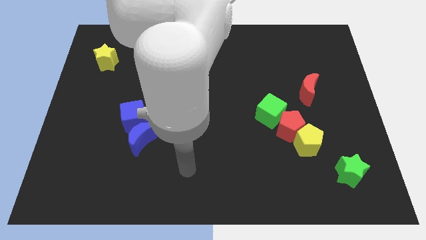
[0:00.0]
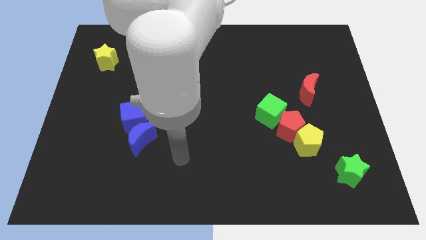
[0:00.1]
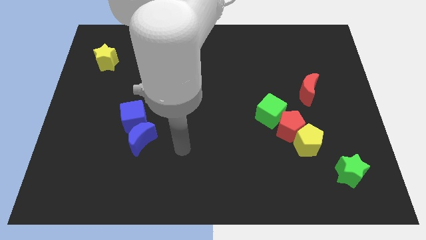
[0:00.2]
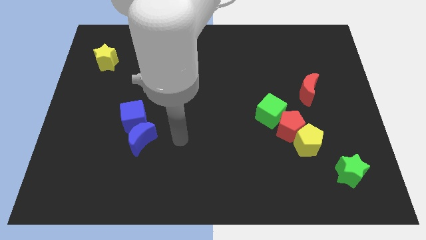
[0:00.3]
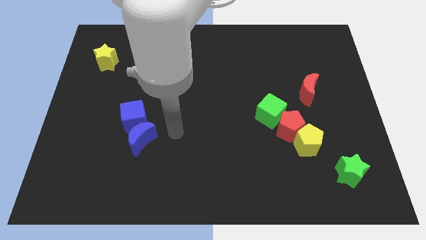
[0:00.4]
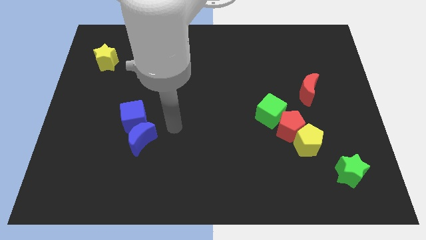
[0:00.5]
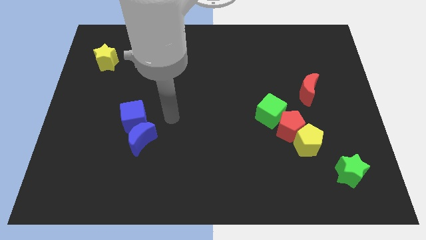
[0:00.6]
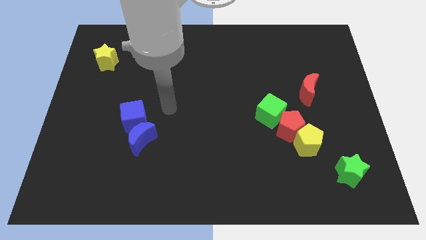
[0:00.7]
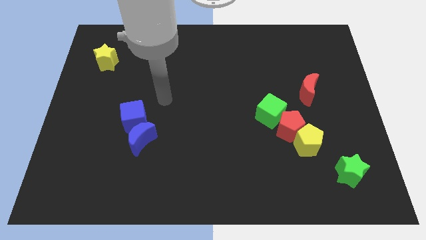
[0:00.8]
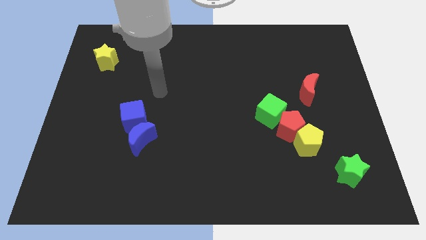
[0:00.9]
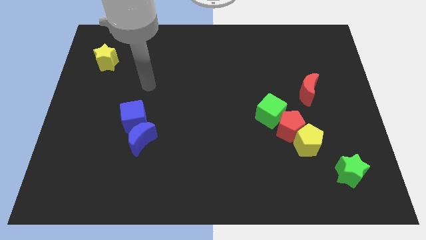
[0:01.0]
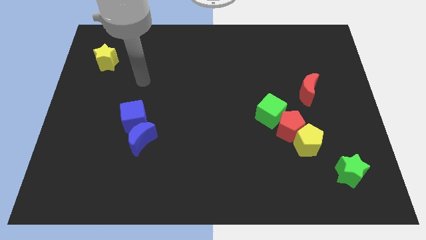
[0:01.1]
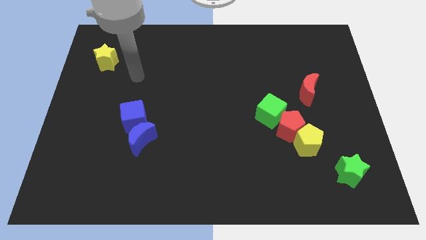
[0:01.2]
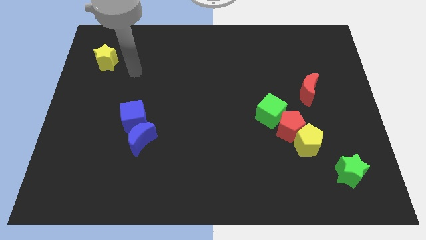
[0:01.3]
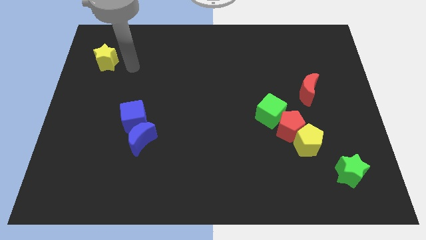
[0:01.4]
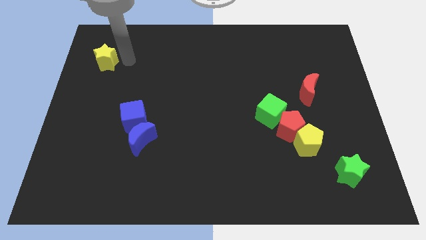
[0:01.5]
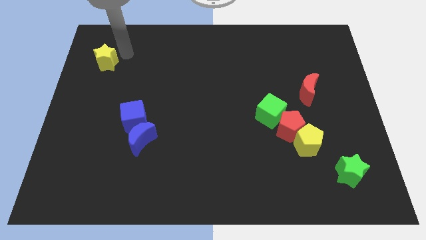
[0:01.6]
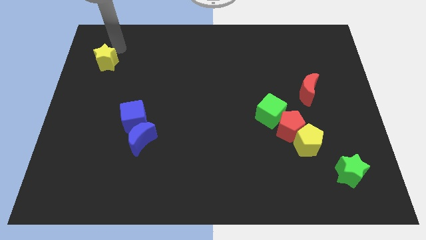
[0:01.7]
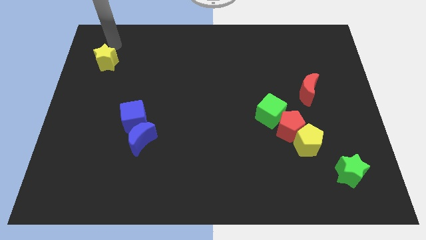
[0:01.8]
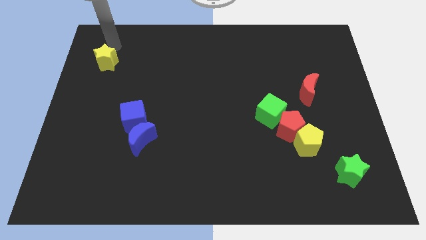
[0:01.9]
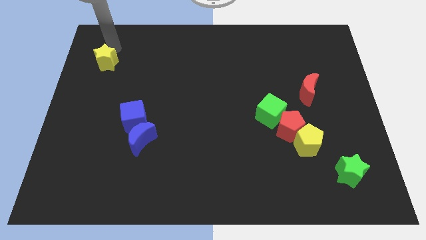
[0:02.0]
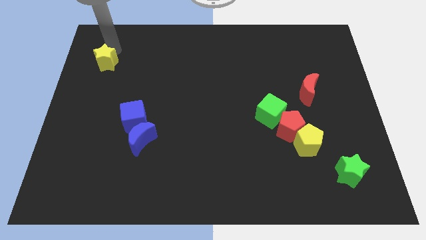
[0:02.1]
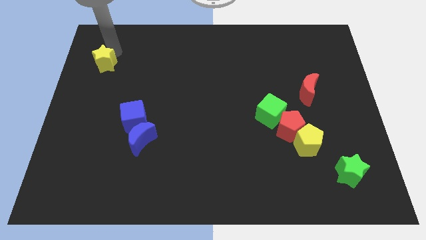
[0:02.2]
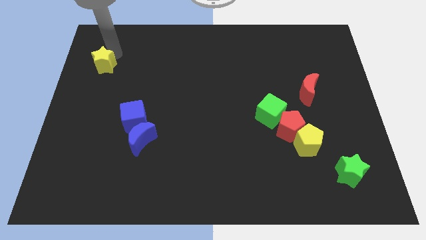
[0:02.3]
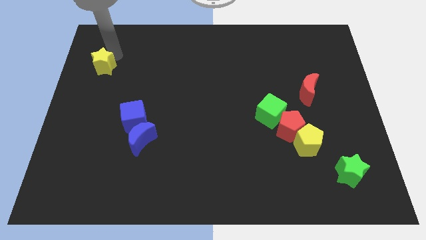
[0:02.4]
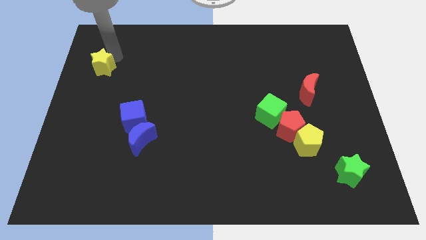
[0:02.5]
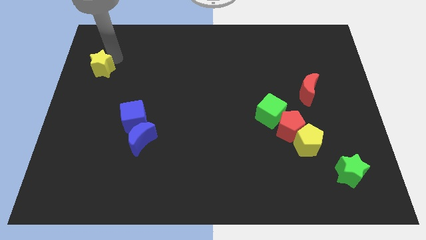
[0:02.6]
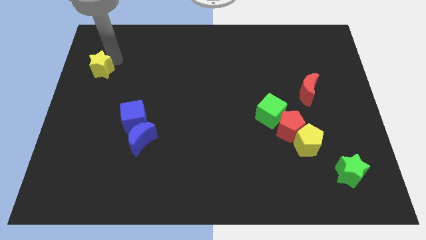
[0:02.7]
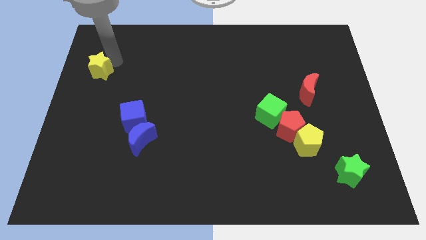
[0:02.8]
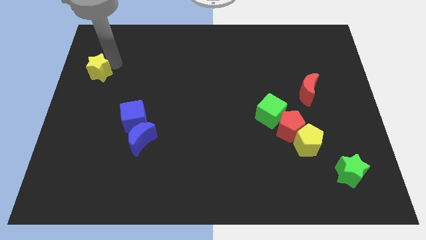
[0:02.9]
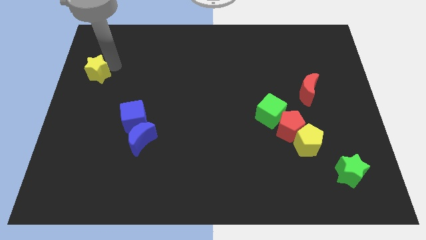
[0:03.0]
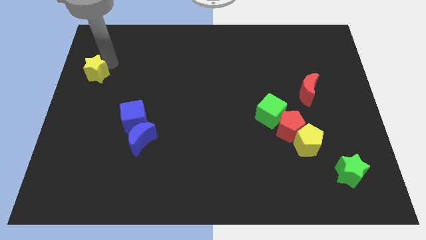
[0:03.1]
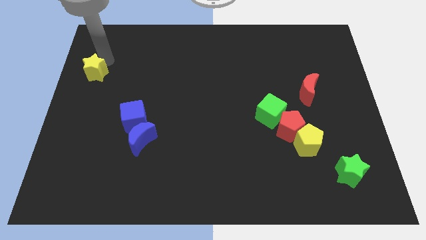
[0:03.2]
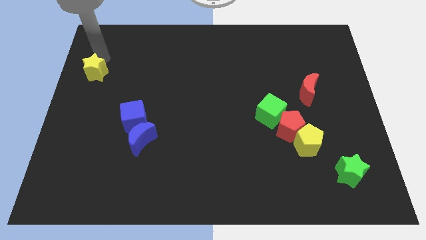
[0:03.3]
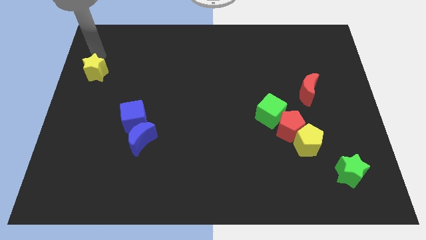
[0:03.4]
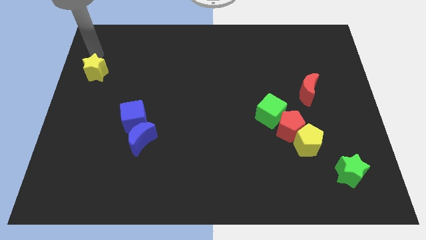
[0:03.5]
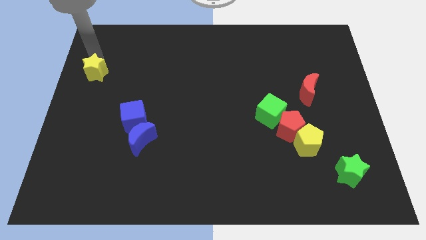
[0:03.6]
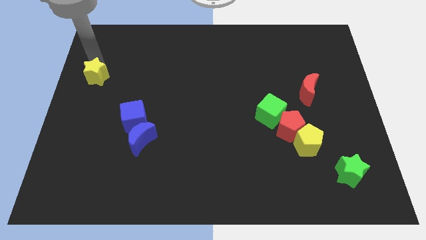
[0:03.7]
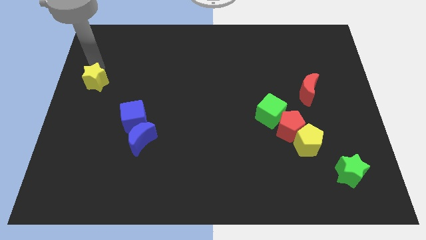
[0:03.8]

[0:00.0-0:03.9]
move the yellow star downwards a little bit

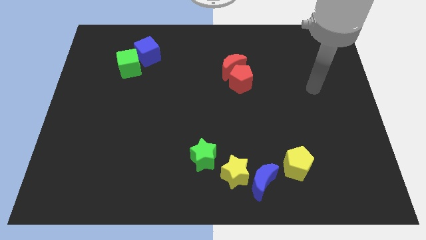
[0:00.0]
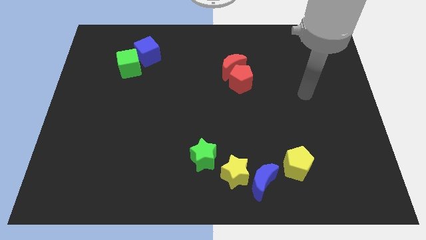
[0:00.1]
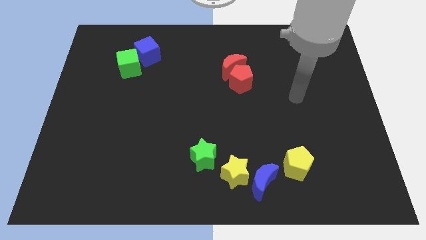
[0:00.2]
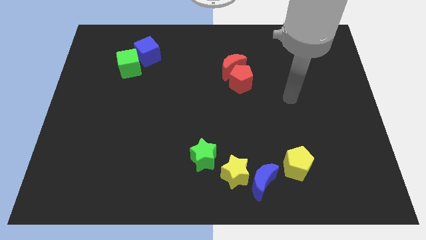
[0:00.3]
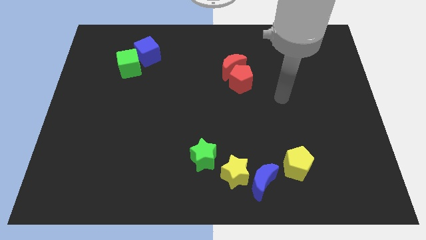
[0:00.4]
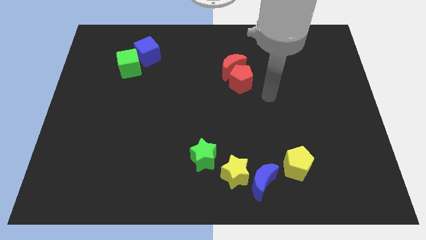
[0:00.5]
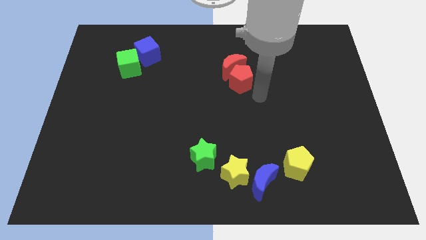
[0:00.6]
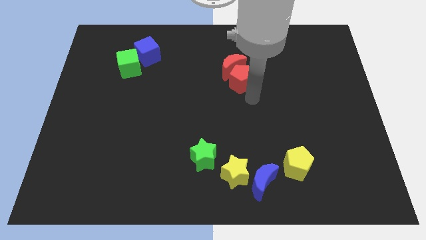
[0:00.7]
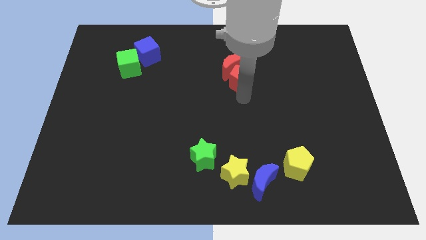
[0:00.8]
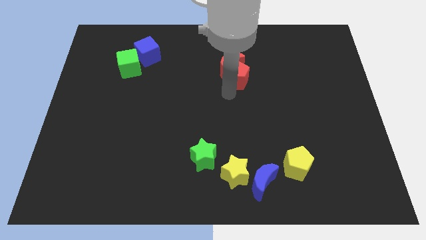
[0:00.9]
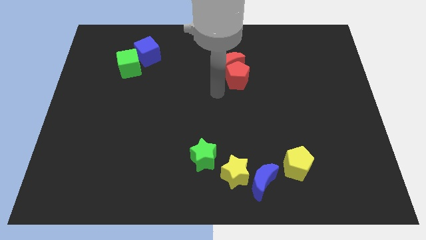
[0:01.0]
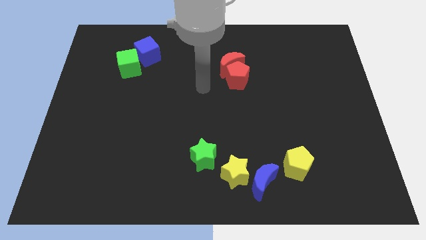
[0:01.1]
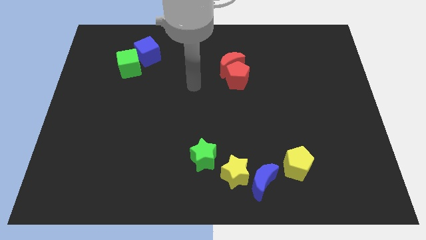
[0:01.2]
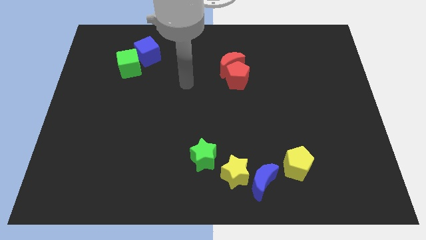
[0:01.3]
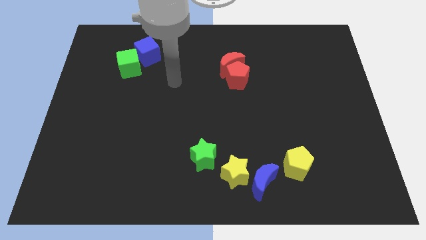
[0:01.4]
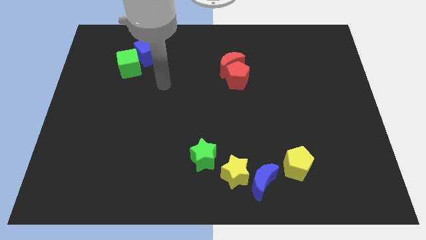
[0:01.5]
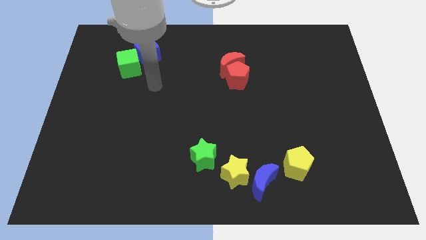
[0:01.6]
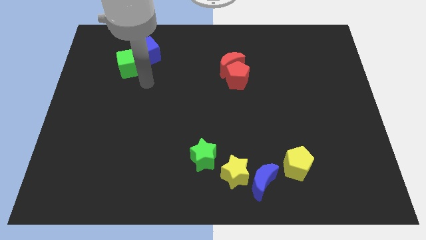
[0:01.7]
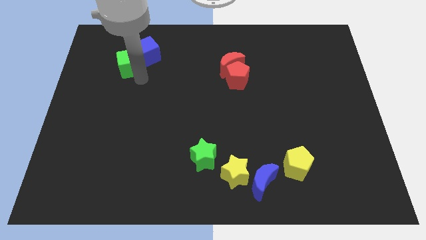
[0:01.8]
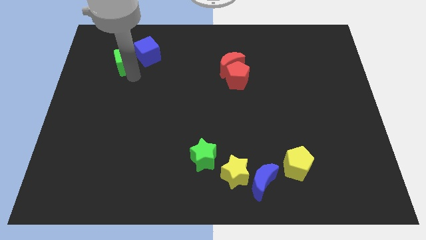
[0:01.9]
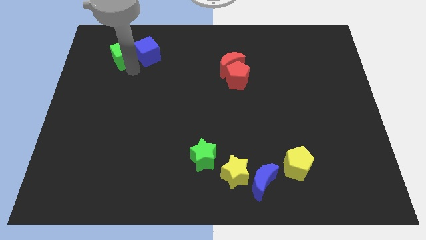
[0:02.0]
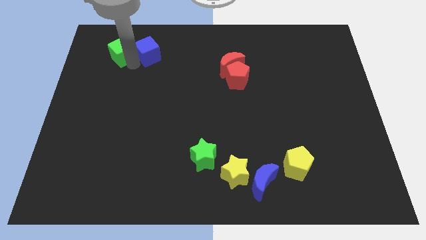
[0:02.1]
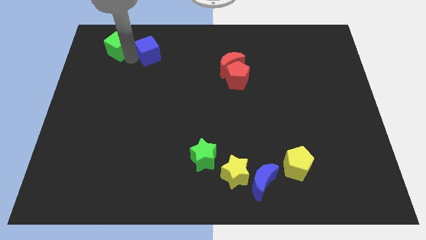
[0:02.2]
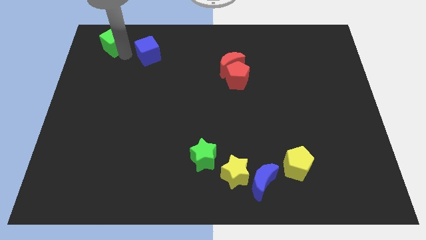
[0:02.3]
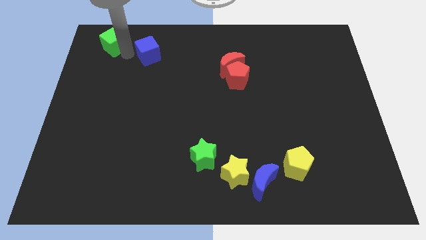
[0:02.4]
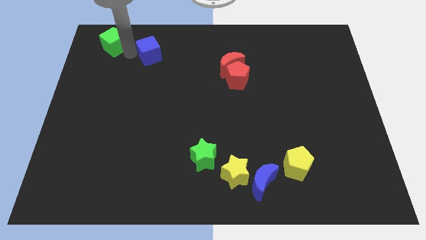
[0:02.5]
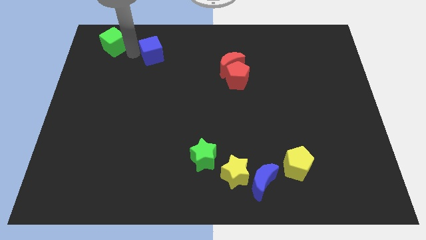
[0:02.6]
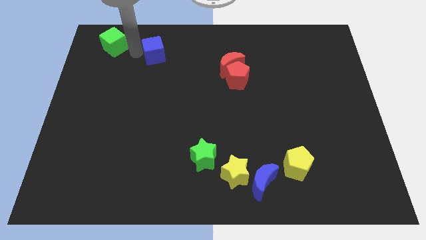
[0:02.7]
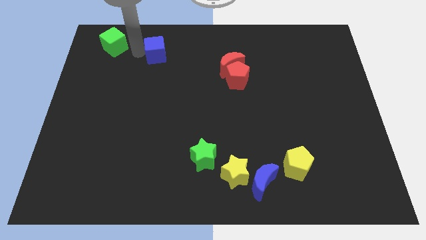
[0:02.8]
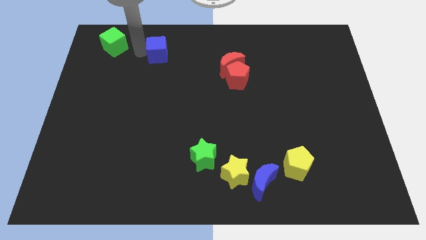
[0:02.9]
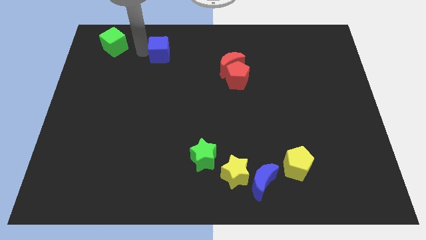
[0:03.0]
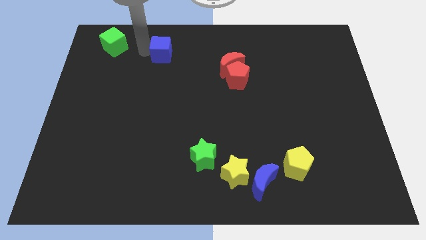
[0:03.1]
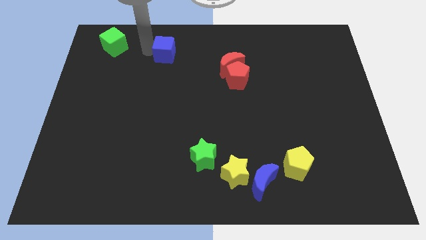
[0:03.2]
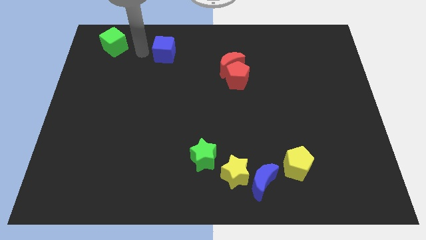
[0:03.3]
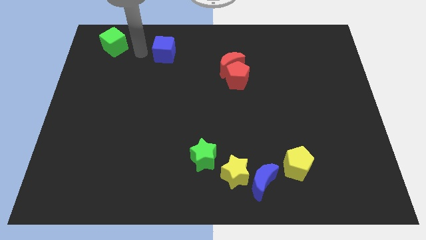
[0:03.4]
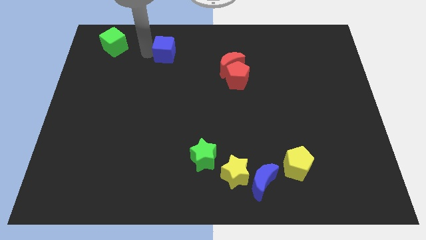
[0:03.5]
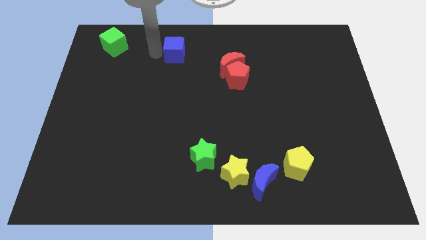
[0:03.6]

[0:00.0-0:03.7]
move the blue cube a little bit to the right

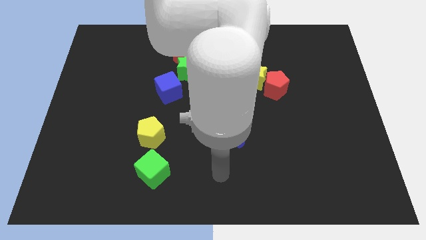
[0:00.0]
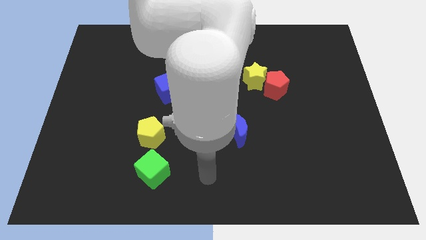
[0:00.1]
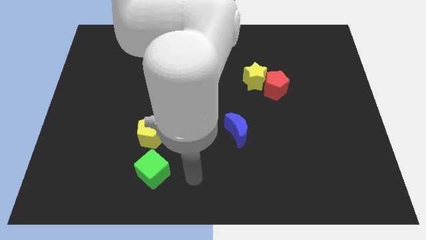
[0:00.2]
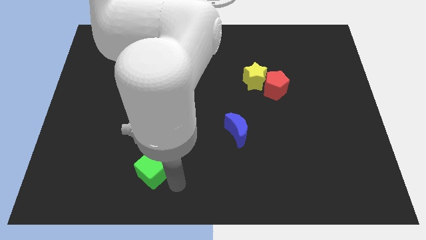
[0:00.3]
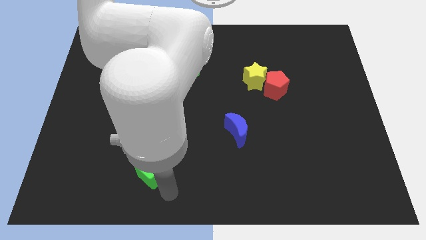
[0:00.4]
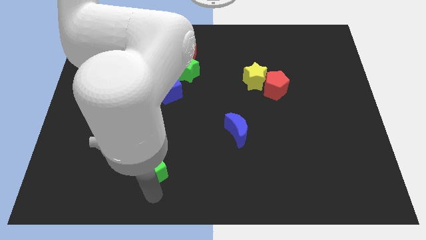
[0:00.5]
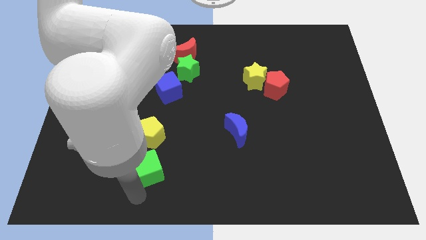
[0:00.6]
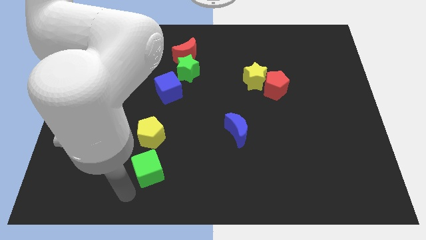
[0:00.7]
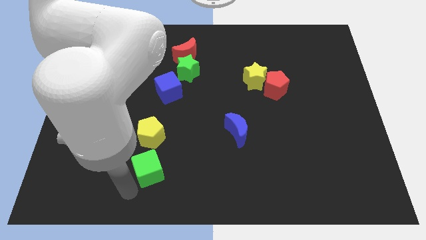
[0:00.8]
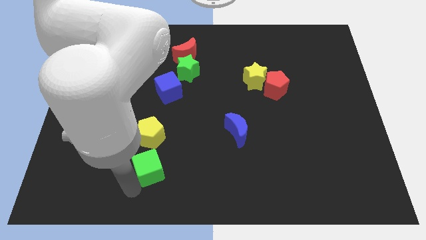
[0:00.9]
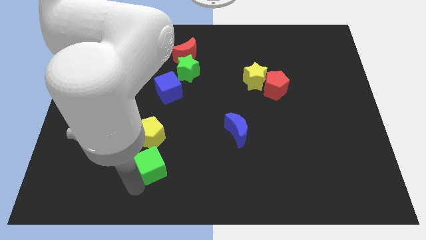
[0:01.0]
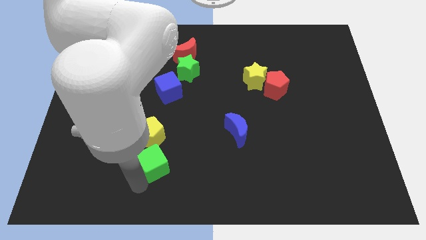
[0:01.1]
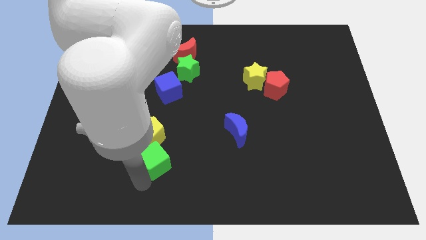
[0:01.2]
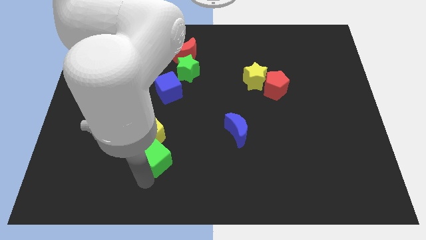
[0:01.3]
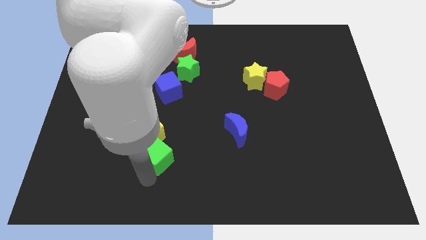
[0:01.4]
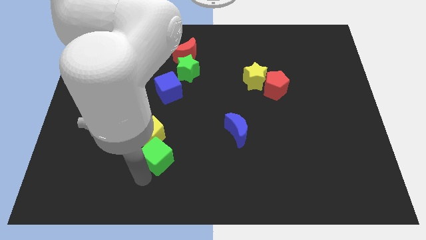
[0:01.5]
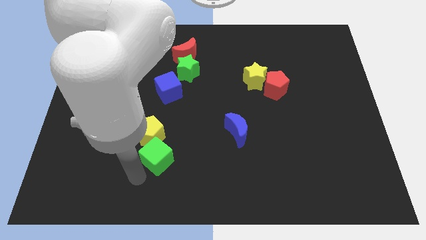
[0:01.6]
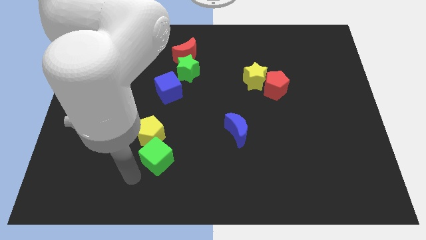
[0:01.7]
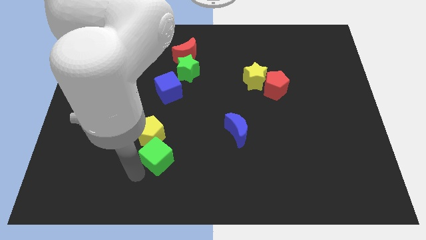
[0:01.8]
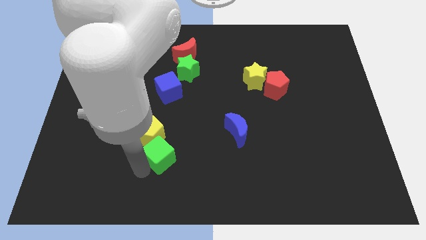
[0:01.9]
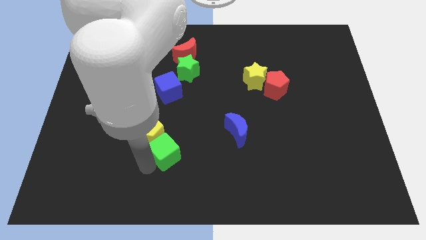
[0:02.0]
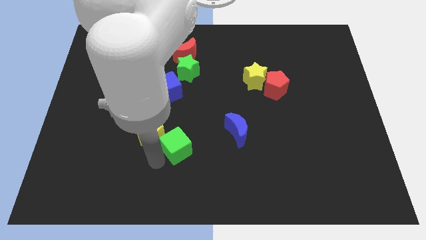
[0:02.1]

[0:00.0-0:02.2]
slightly slide the green cube upwards and right
